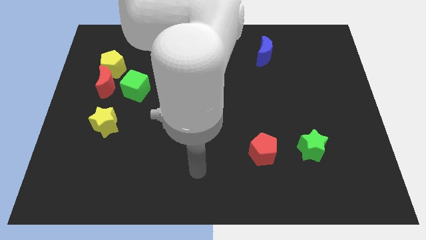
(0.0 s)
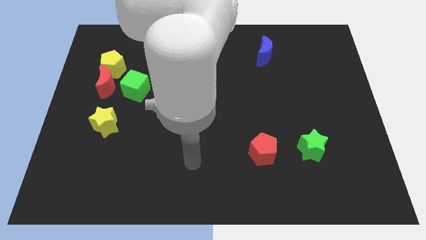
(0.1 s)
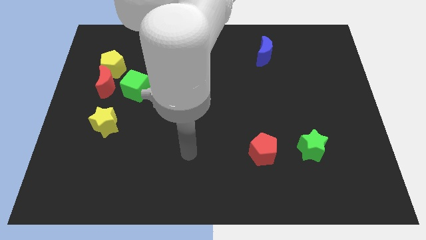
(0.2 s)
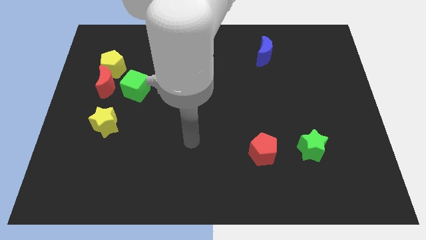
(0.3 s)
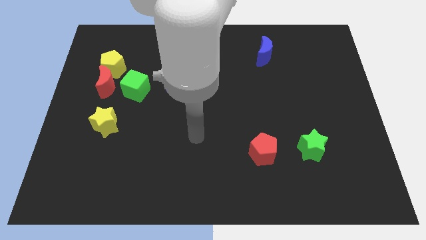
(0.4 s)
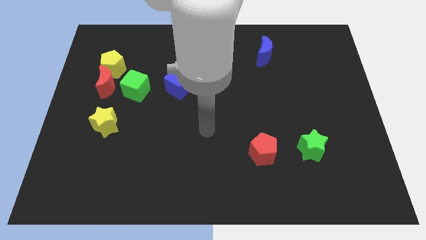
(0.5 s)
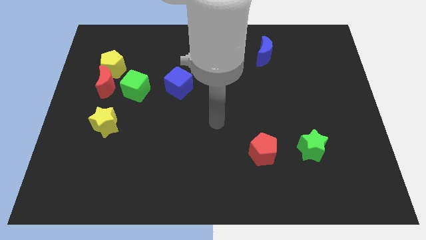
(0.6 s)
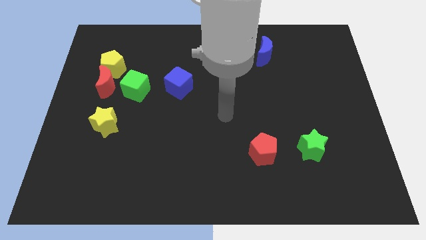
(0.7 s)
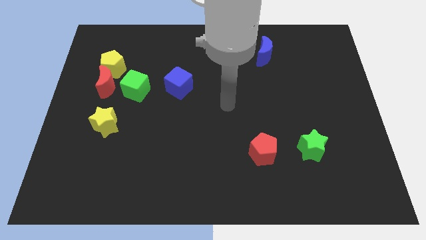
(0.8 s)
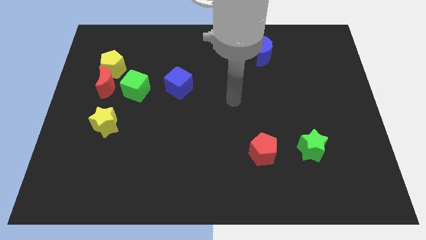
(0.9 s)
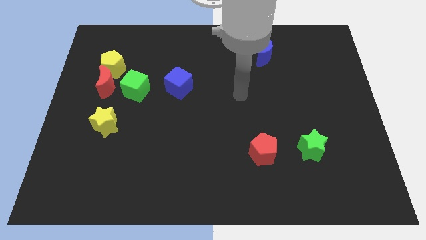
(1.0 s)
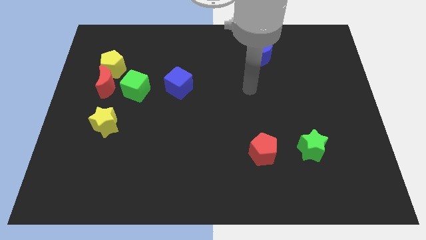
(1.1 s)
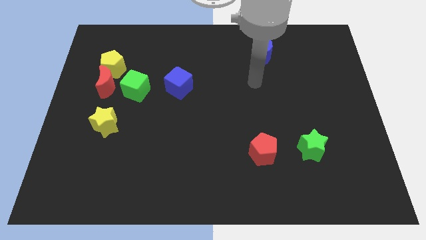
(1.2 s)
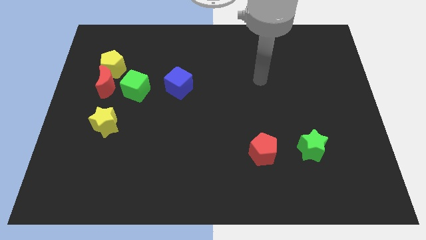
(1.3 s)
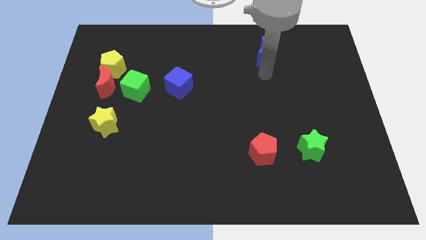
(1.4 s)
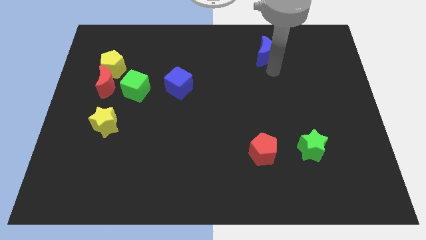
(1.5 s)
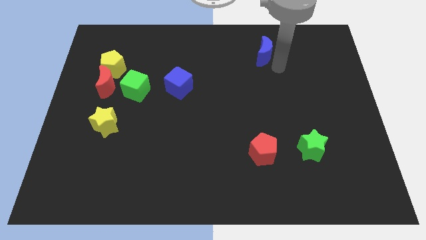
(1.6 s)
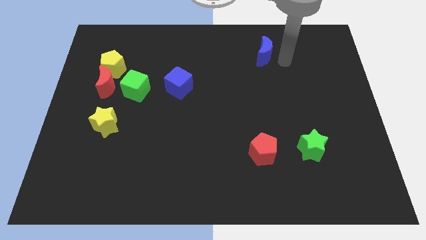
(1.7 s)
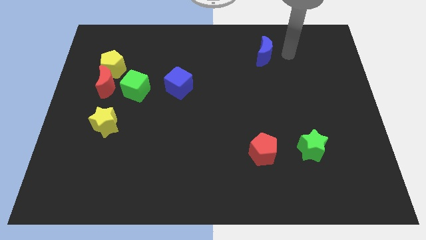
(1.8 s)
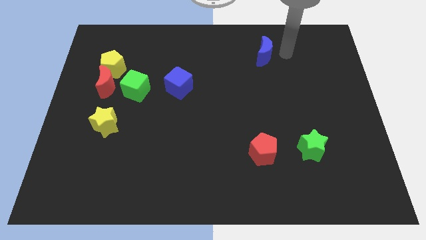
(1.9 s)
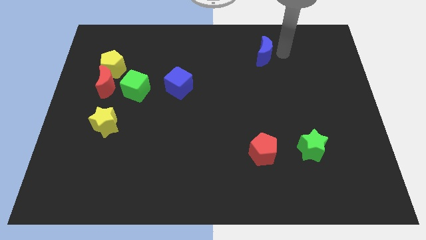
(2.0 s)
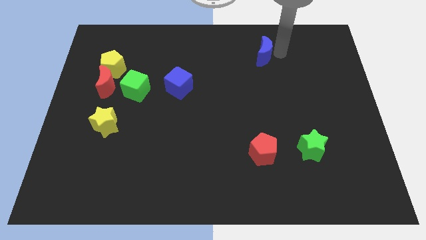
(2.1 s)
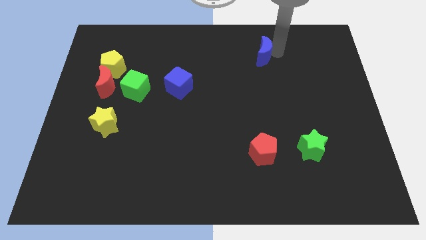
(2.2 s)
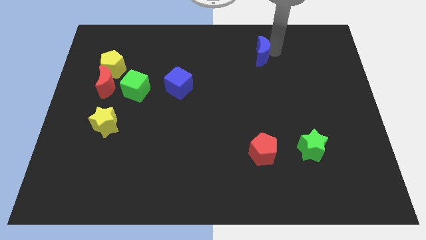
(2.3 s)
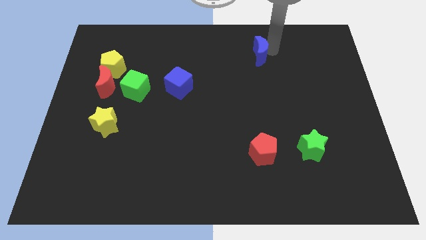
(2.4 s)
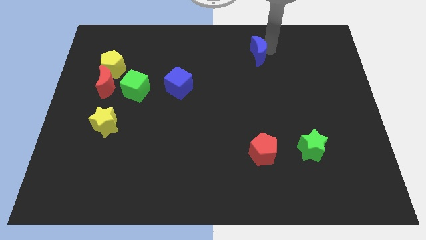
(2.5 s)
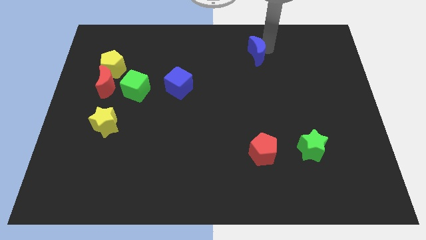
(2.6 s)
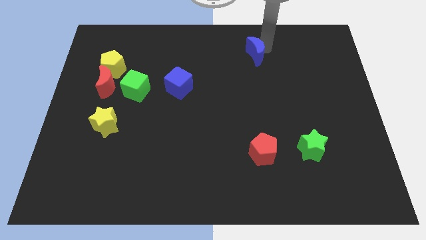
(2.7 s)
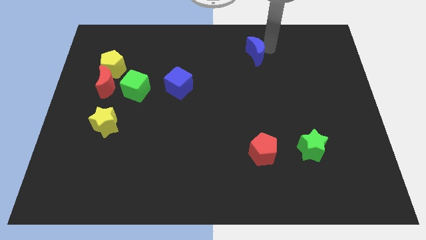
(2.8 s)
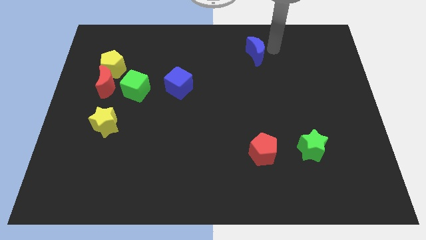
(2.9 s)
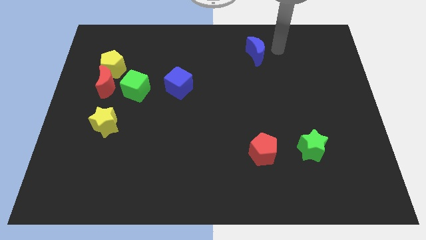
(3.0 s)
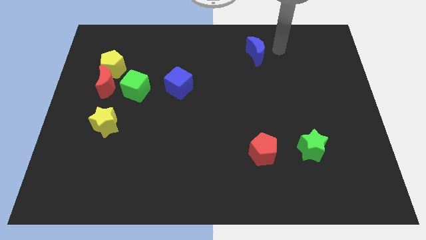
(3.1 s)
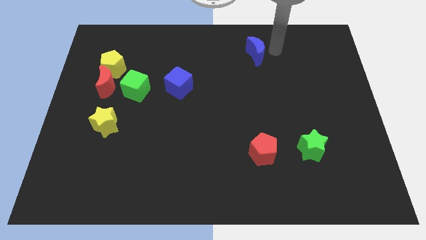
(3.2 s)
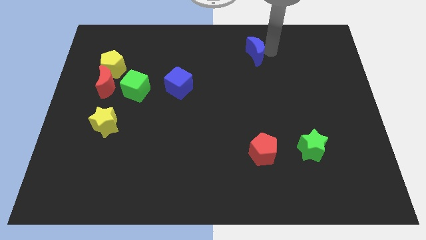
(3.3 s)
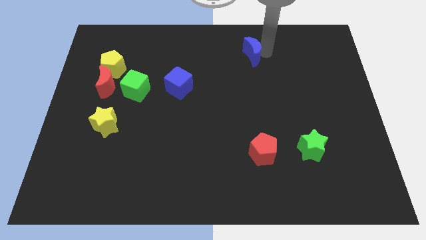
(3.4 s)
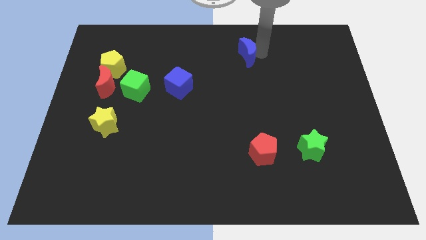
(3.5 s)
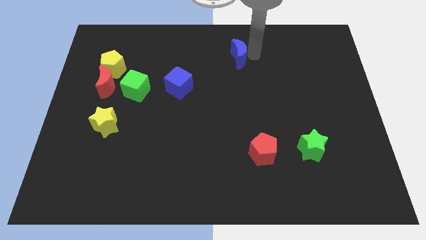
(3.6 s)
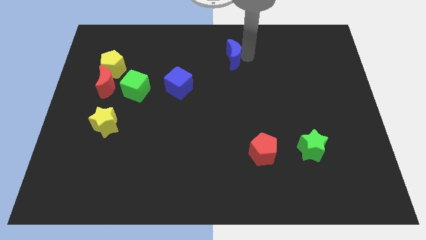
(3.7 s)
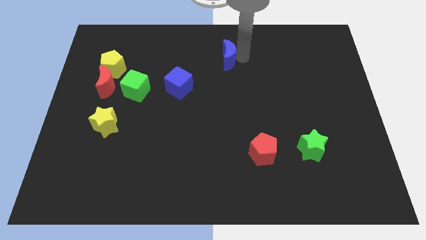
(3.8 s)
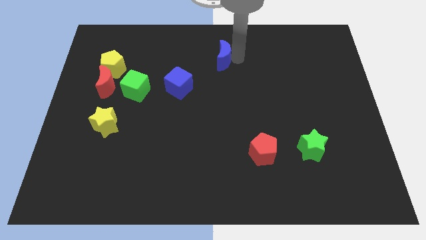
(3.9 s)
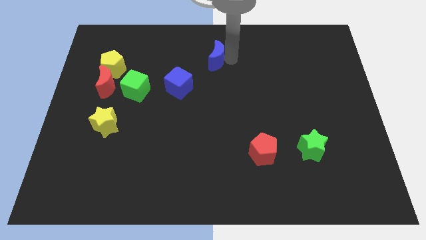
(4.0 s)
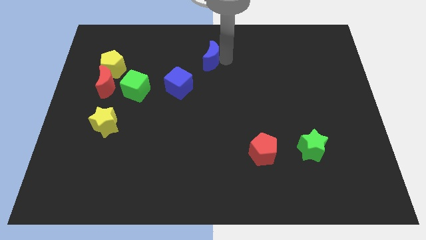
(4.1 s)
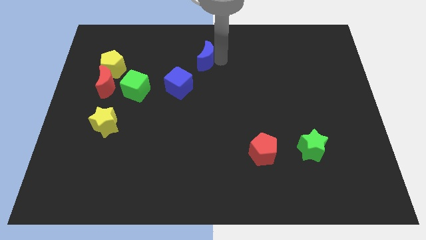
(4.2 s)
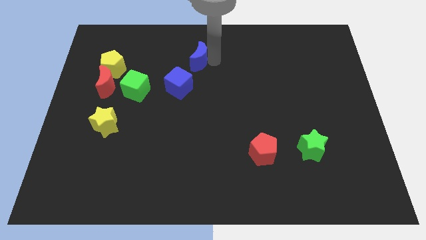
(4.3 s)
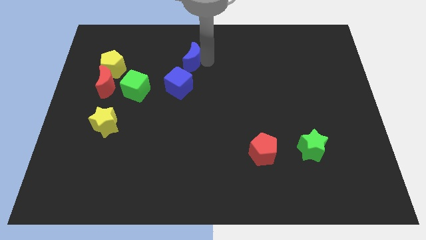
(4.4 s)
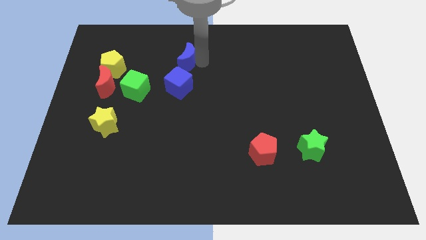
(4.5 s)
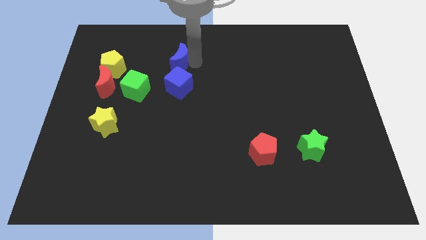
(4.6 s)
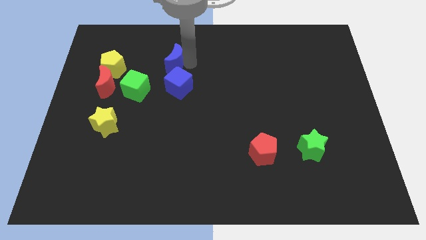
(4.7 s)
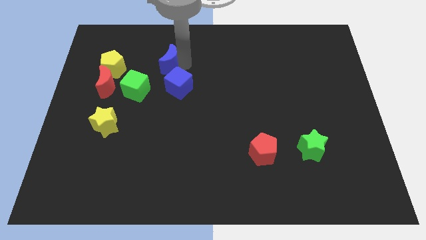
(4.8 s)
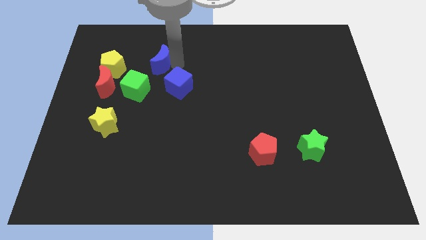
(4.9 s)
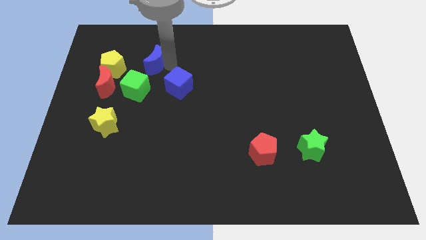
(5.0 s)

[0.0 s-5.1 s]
slide the blue moon to the top of the green cube

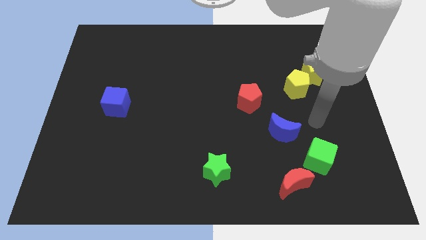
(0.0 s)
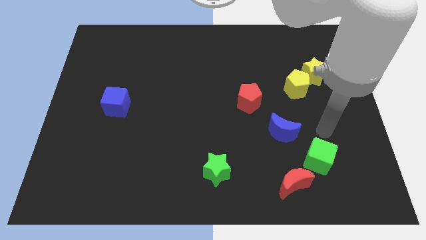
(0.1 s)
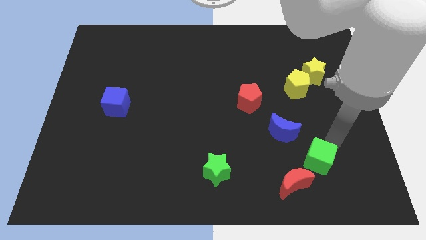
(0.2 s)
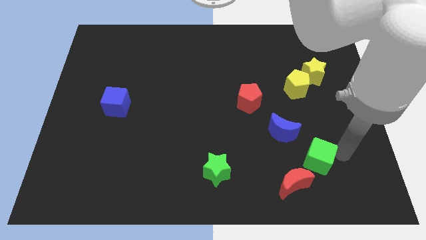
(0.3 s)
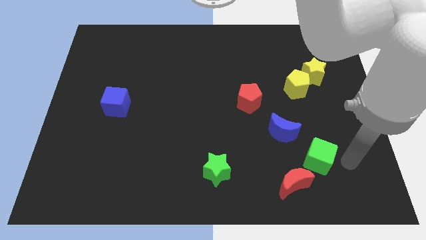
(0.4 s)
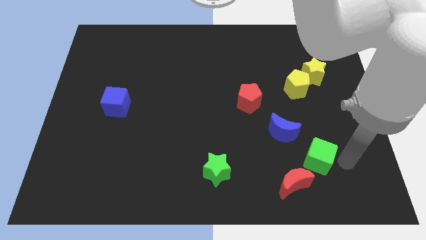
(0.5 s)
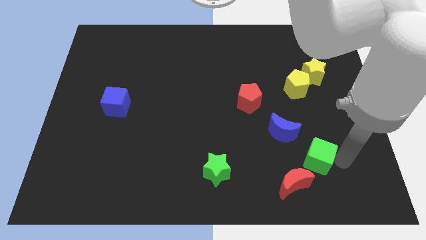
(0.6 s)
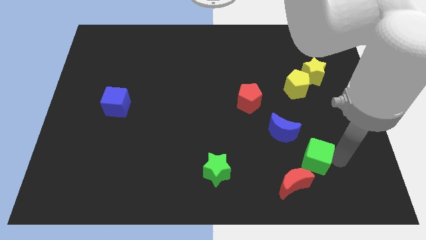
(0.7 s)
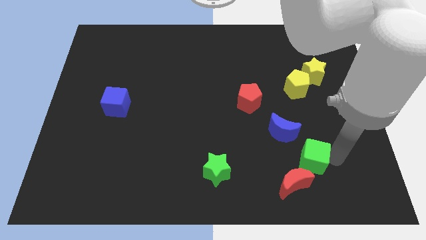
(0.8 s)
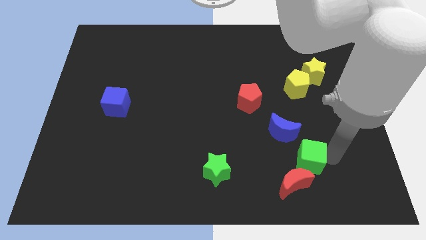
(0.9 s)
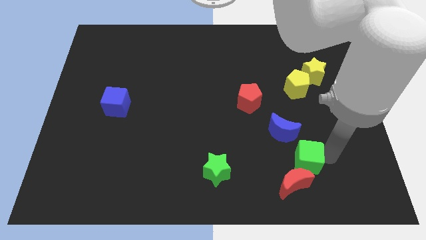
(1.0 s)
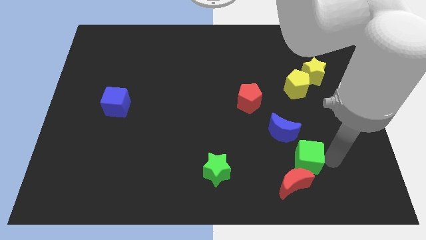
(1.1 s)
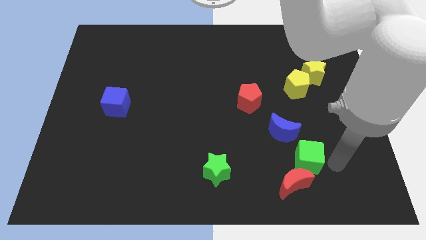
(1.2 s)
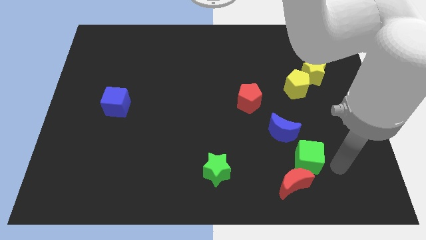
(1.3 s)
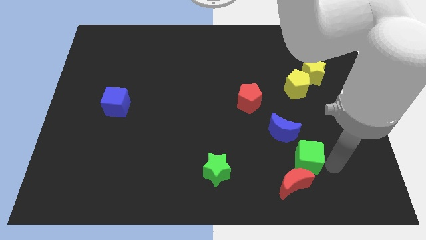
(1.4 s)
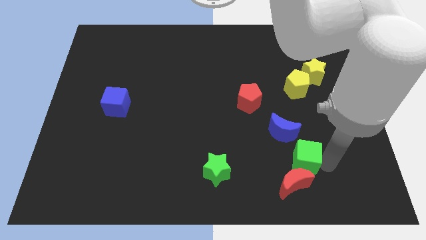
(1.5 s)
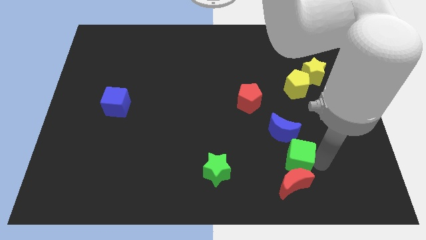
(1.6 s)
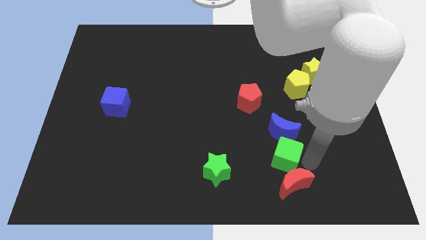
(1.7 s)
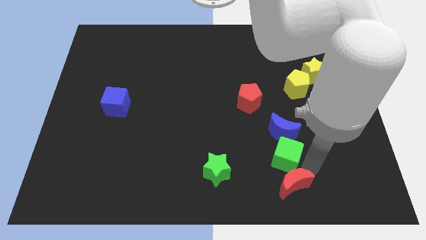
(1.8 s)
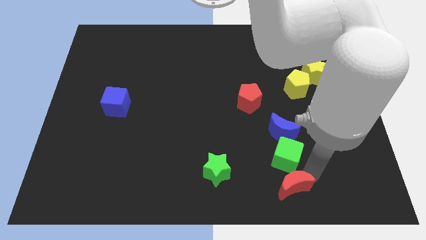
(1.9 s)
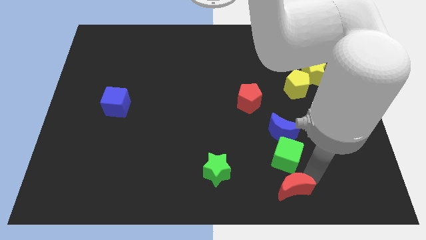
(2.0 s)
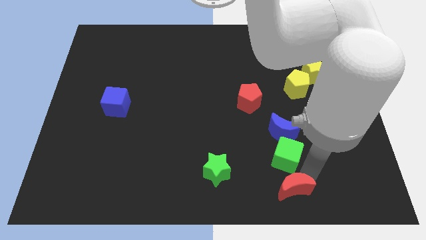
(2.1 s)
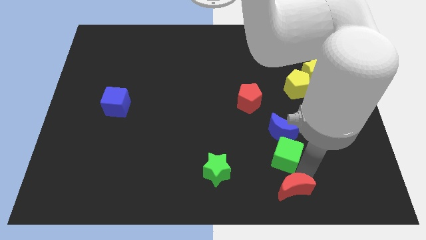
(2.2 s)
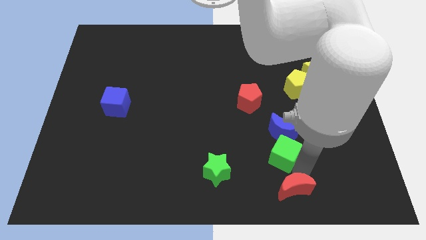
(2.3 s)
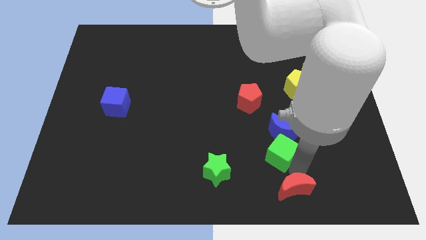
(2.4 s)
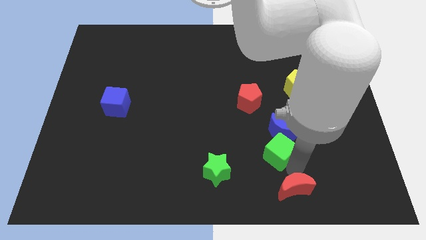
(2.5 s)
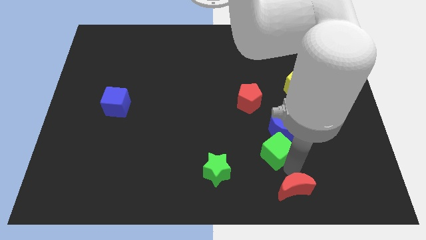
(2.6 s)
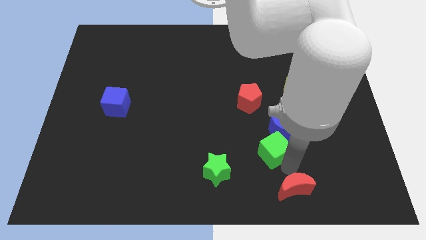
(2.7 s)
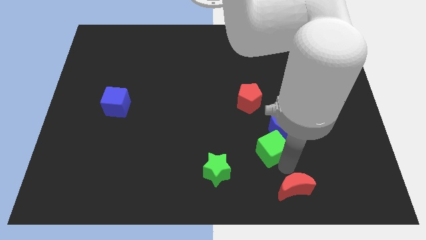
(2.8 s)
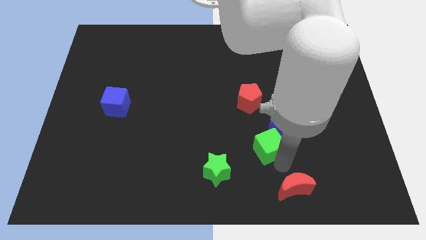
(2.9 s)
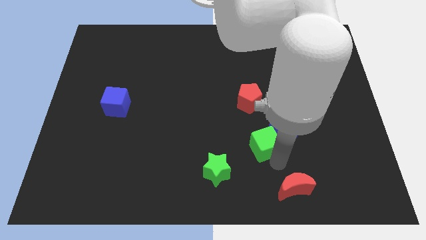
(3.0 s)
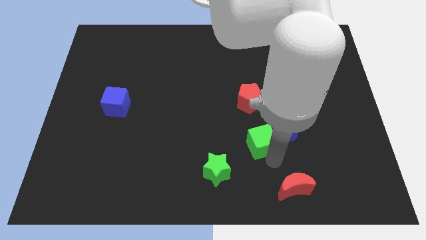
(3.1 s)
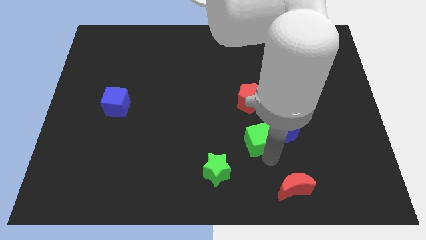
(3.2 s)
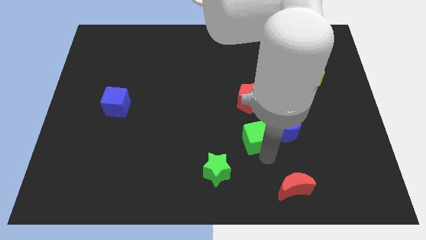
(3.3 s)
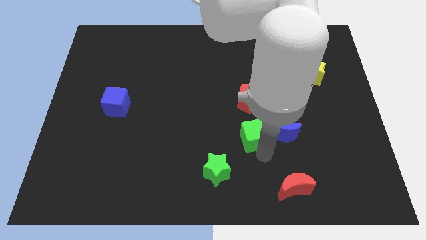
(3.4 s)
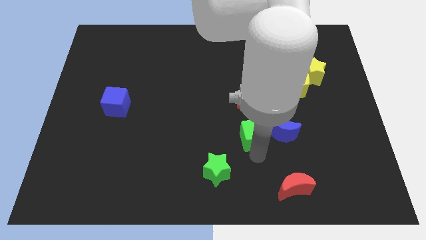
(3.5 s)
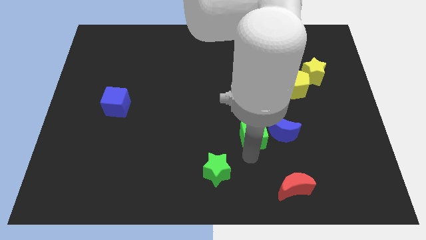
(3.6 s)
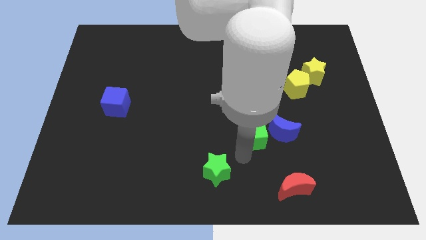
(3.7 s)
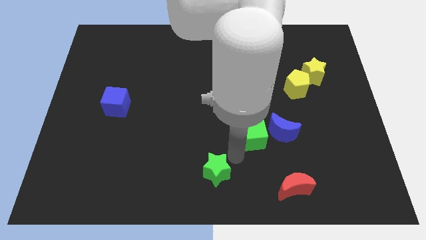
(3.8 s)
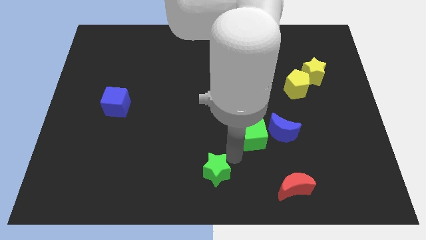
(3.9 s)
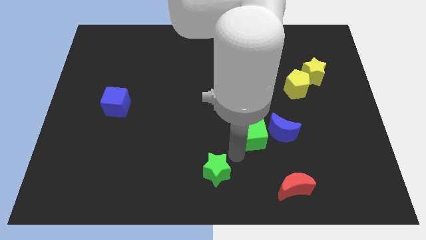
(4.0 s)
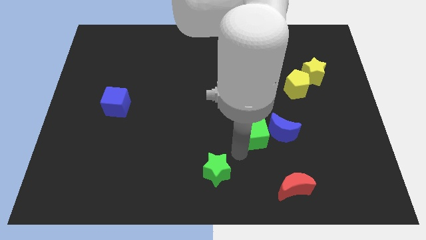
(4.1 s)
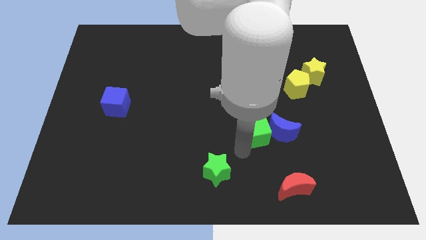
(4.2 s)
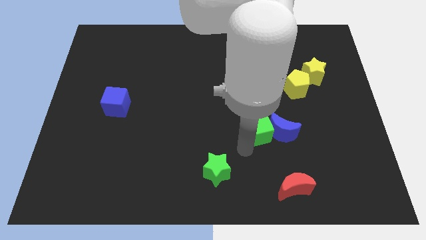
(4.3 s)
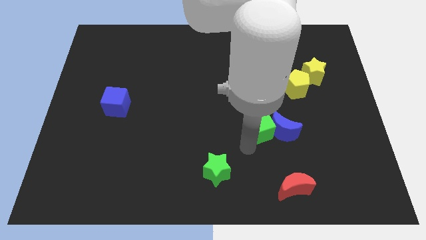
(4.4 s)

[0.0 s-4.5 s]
move the green cube to the bottom right side of the red pentagon
